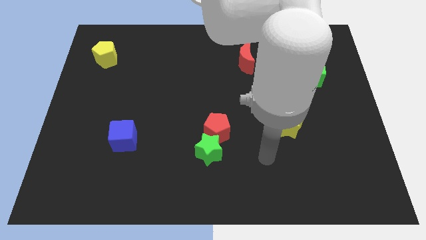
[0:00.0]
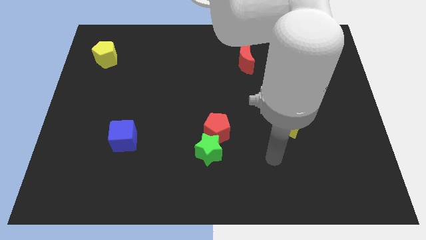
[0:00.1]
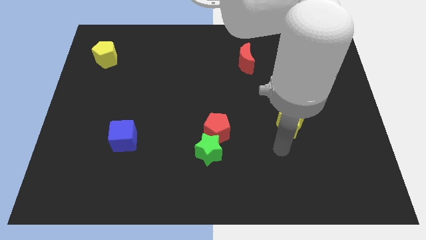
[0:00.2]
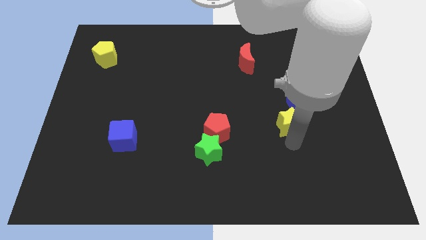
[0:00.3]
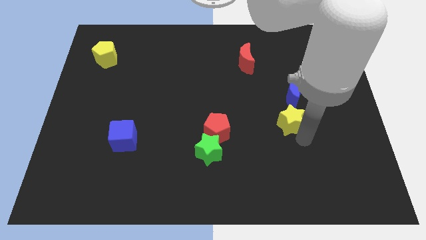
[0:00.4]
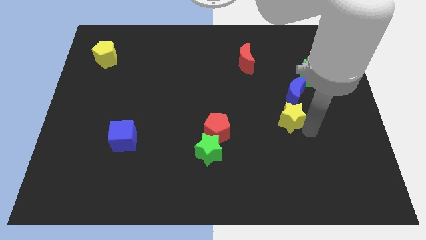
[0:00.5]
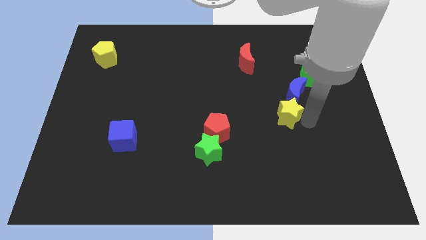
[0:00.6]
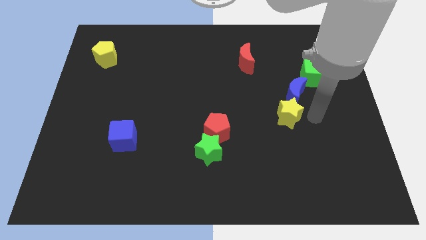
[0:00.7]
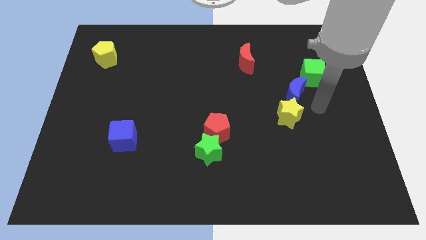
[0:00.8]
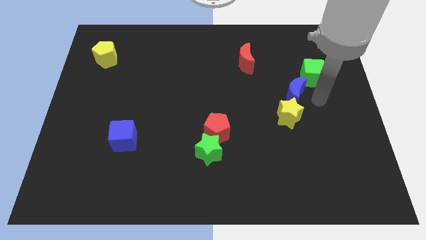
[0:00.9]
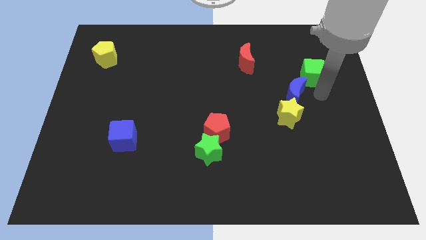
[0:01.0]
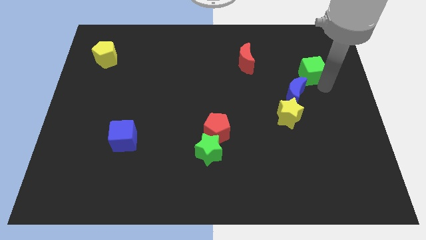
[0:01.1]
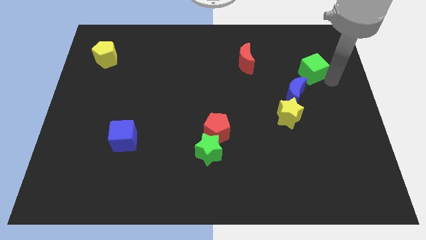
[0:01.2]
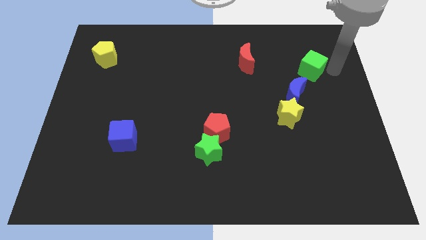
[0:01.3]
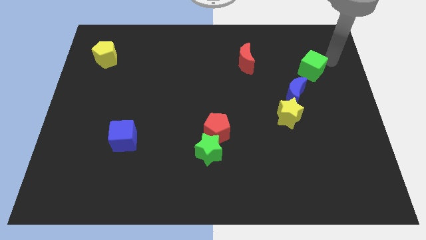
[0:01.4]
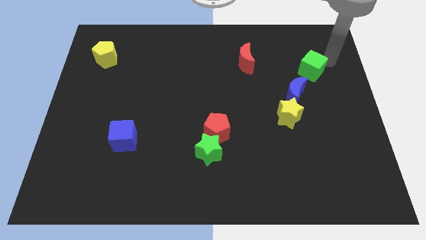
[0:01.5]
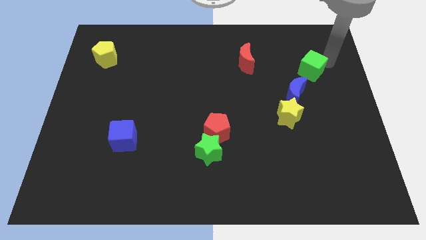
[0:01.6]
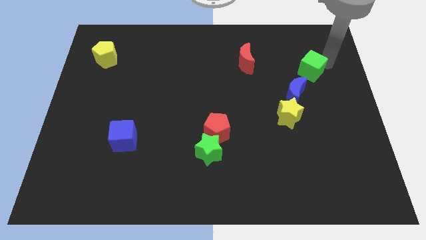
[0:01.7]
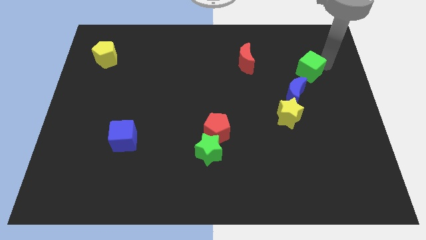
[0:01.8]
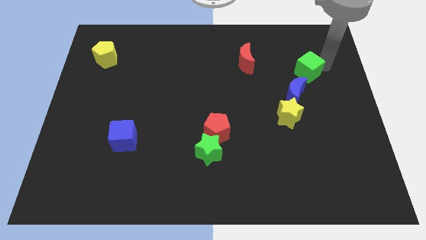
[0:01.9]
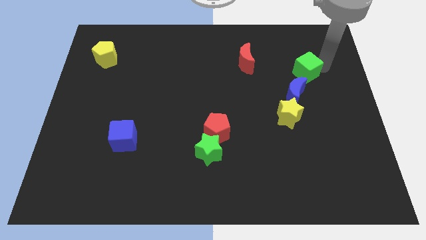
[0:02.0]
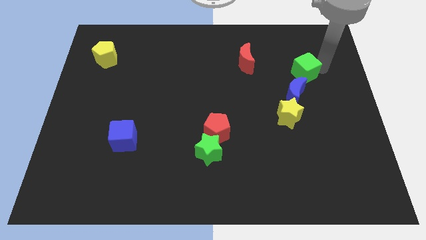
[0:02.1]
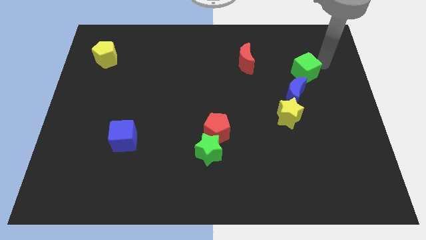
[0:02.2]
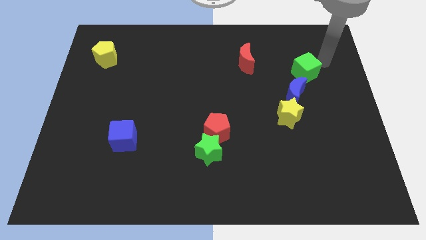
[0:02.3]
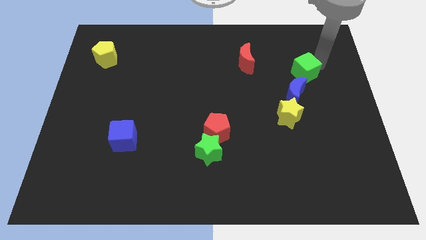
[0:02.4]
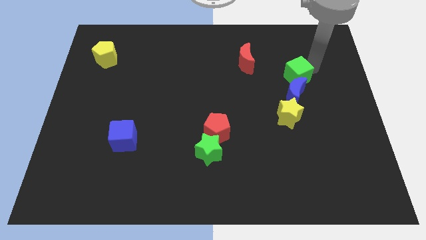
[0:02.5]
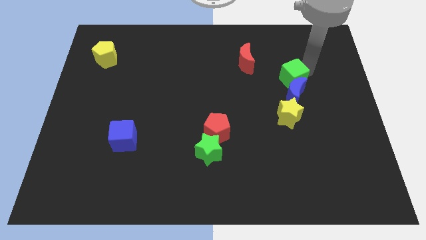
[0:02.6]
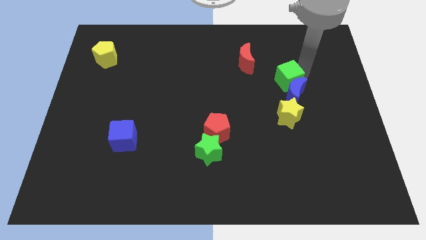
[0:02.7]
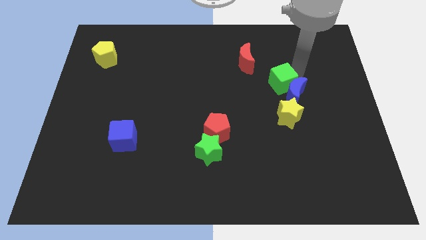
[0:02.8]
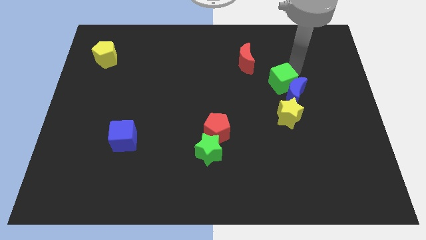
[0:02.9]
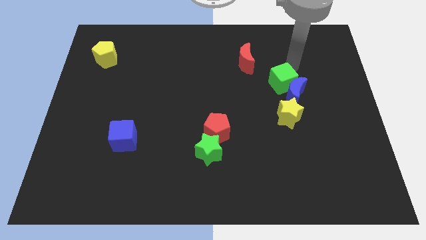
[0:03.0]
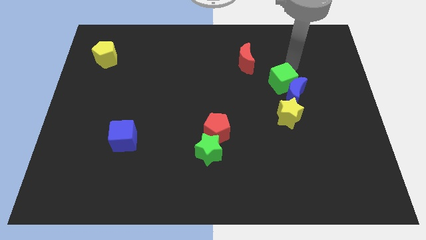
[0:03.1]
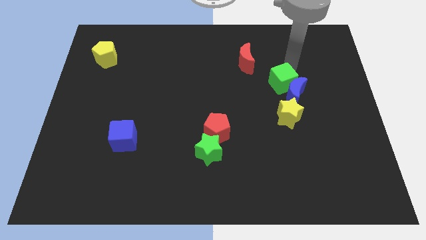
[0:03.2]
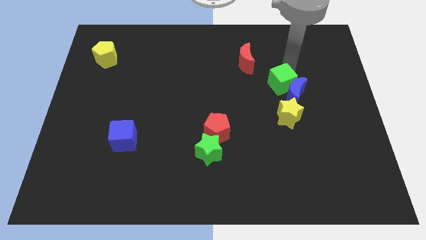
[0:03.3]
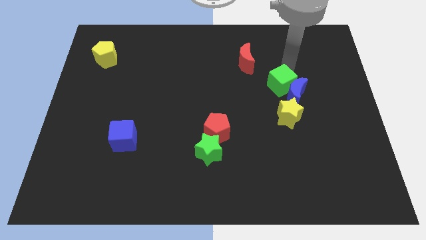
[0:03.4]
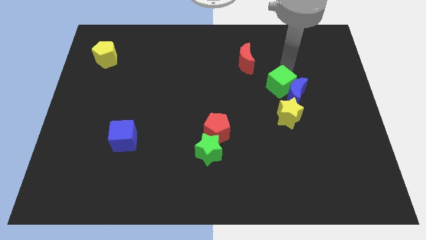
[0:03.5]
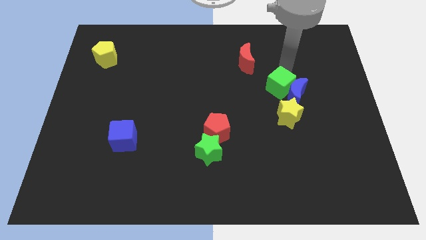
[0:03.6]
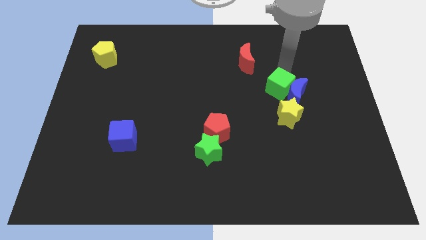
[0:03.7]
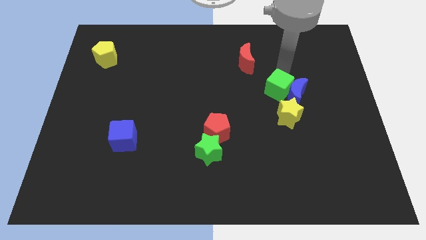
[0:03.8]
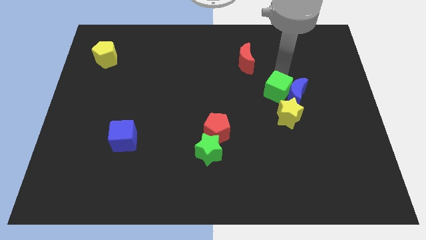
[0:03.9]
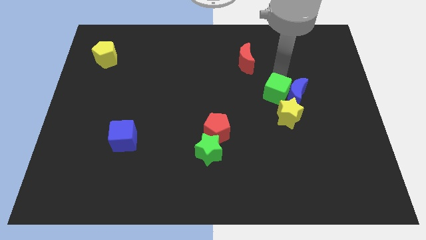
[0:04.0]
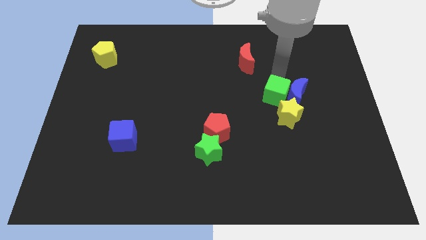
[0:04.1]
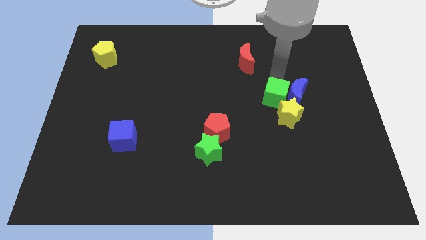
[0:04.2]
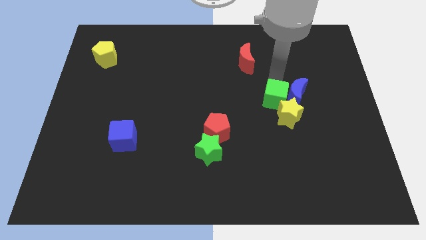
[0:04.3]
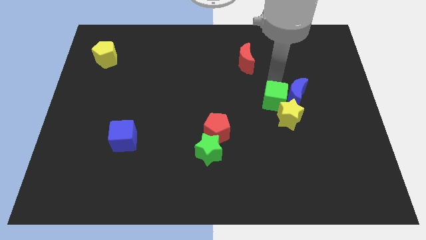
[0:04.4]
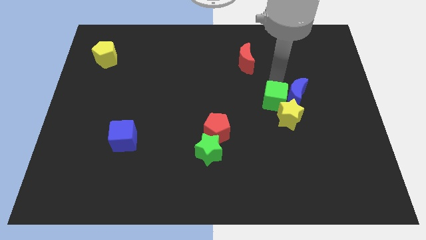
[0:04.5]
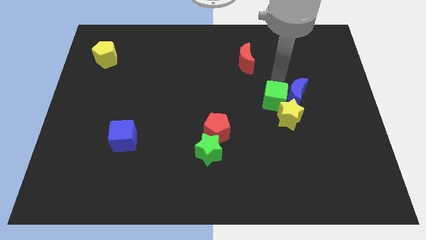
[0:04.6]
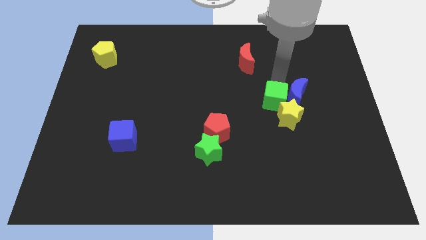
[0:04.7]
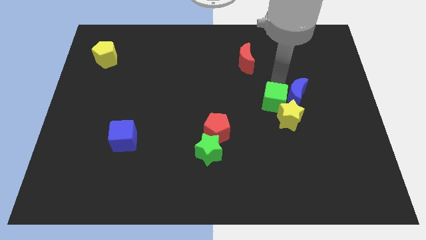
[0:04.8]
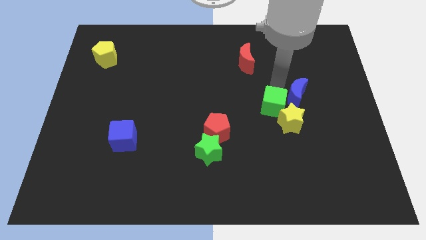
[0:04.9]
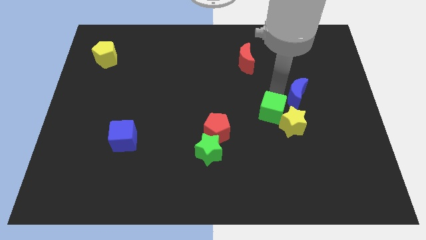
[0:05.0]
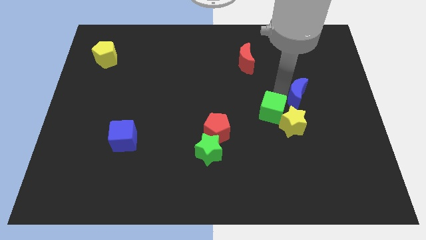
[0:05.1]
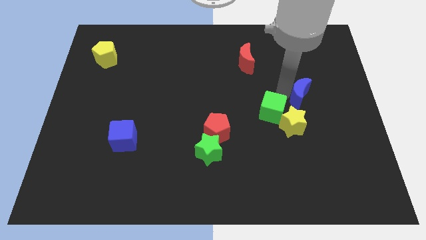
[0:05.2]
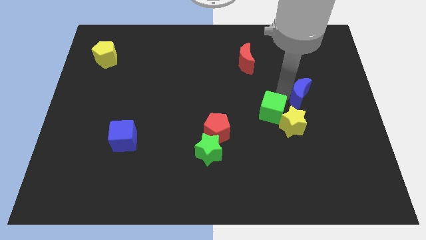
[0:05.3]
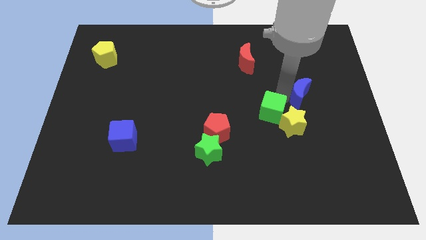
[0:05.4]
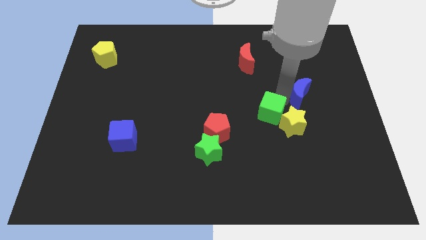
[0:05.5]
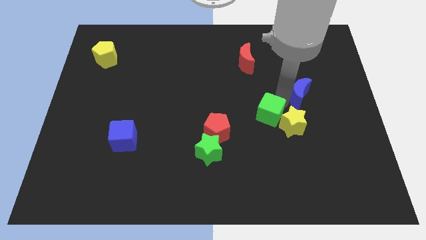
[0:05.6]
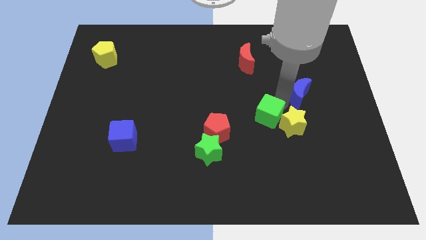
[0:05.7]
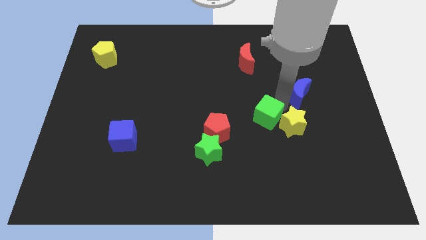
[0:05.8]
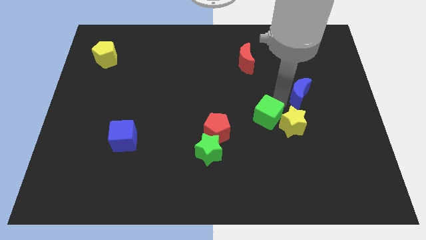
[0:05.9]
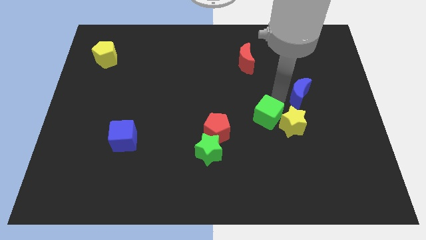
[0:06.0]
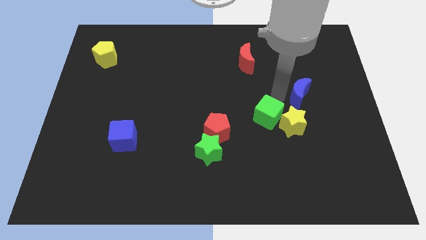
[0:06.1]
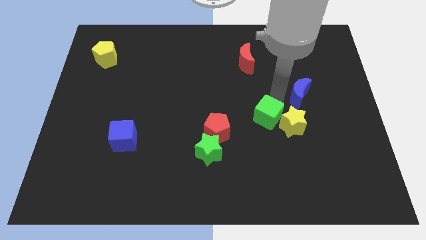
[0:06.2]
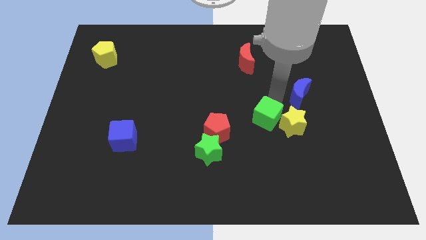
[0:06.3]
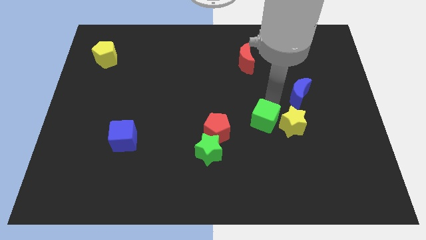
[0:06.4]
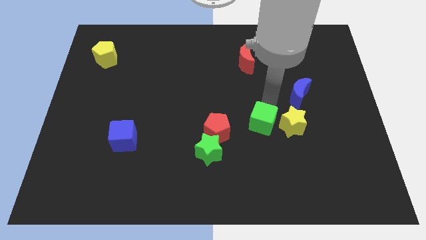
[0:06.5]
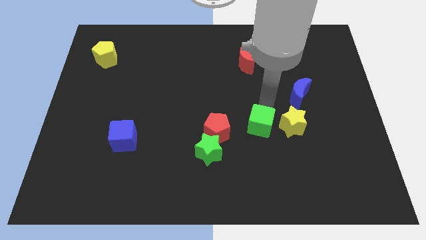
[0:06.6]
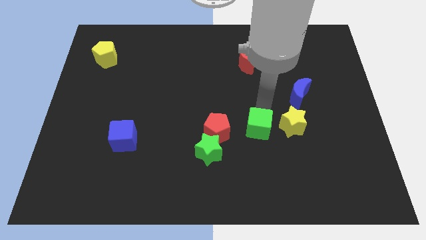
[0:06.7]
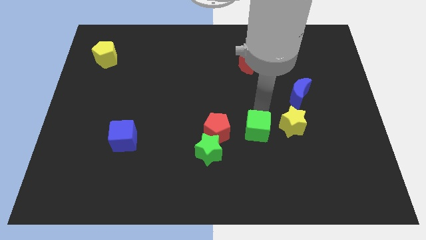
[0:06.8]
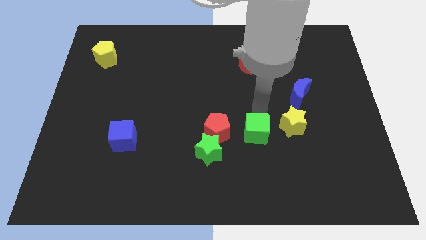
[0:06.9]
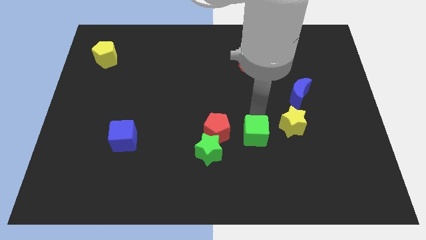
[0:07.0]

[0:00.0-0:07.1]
move the green cube to the right side of the green star

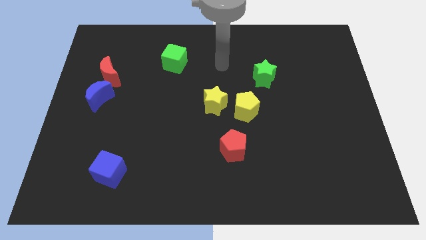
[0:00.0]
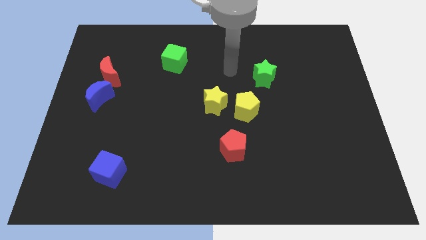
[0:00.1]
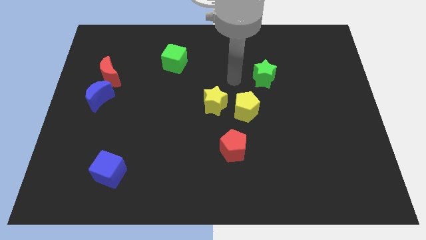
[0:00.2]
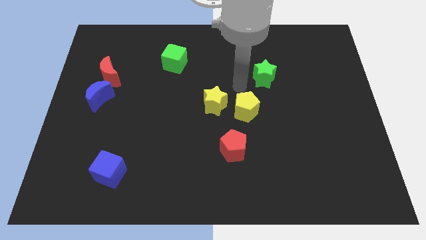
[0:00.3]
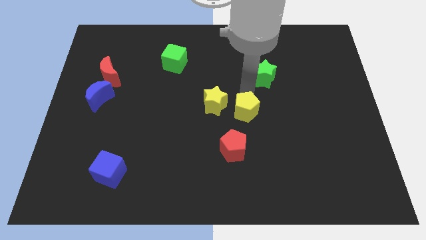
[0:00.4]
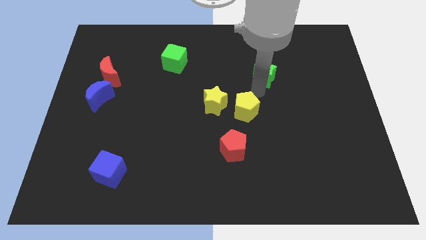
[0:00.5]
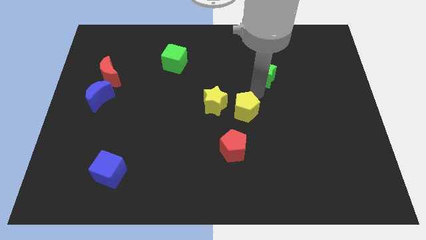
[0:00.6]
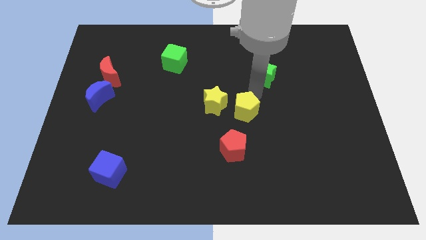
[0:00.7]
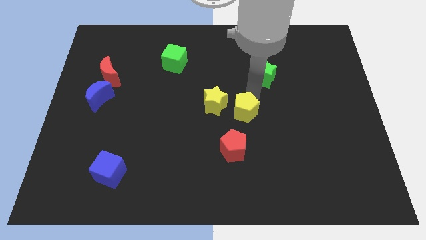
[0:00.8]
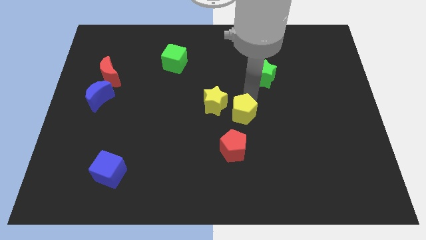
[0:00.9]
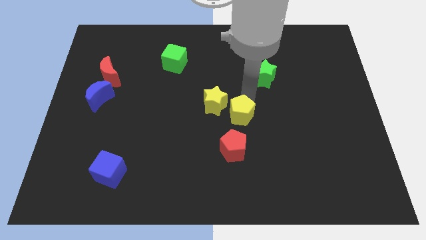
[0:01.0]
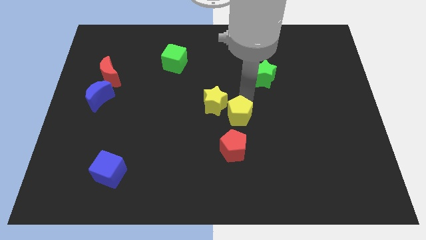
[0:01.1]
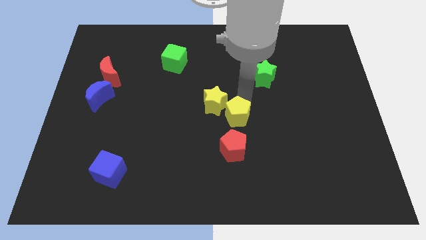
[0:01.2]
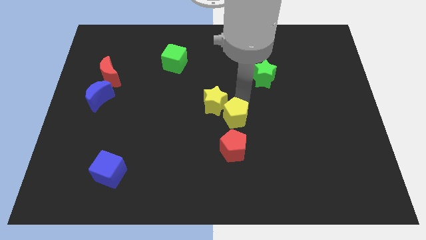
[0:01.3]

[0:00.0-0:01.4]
move the yellow pentagon to the bottom of the yellow star
